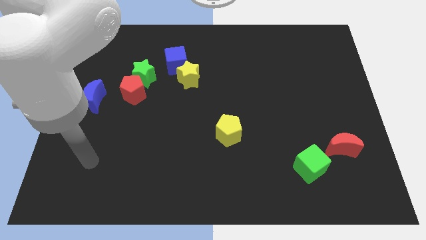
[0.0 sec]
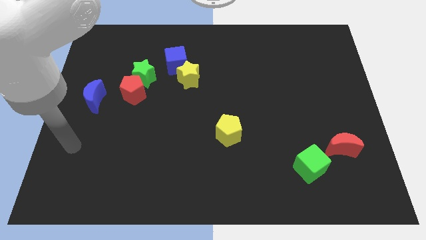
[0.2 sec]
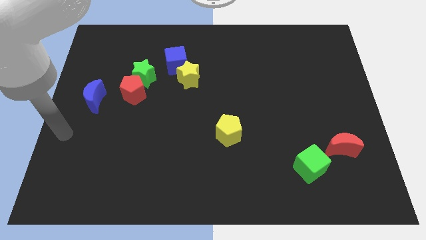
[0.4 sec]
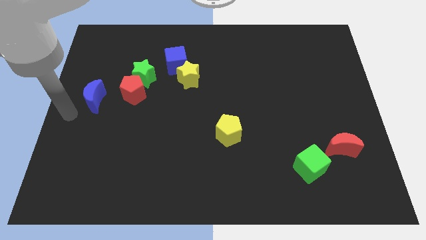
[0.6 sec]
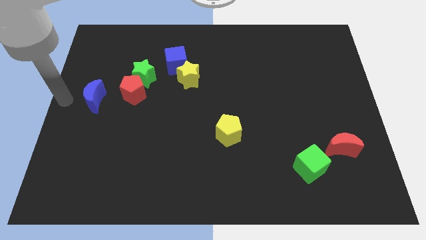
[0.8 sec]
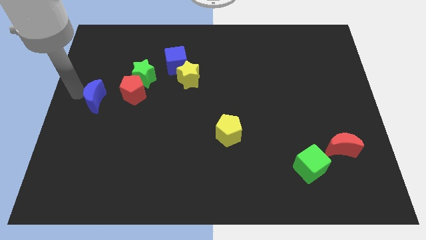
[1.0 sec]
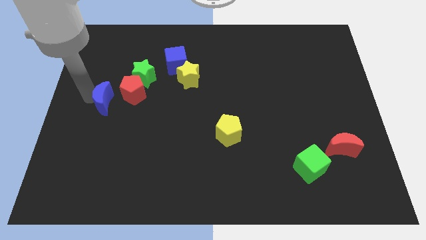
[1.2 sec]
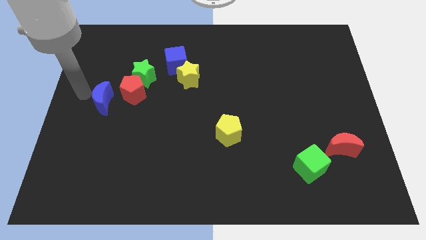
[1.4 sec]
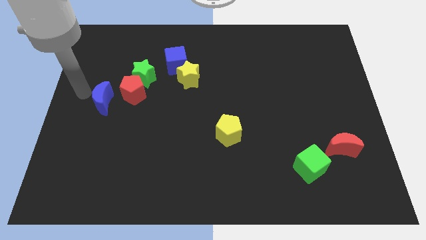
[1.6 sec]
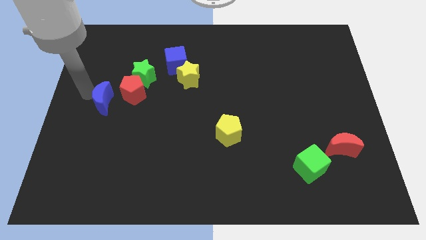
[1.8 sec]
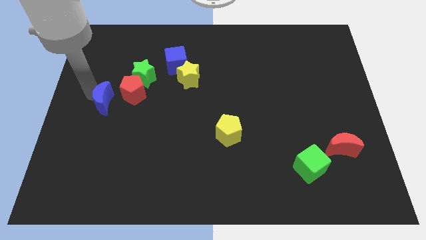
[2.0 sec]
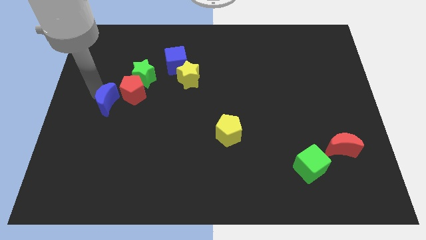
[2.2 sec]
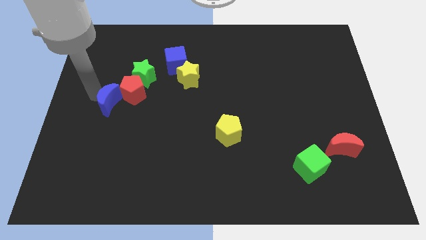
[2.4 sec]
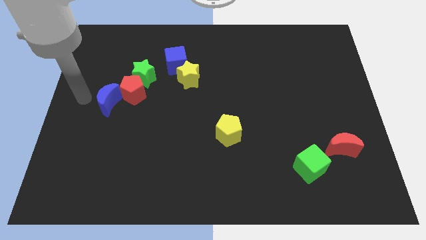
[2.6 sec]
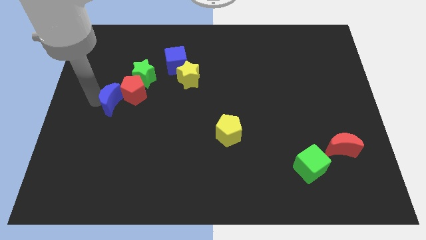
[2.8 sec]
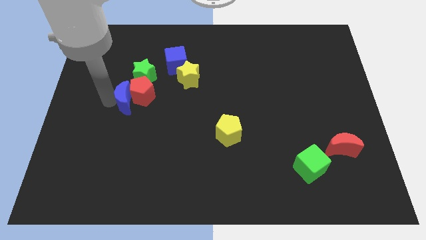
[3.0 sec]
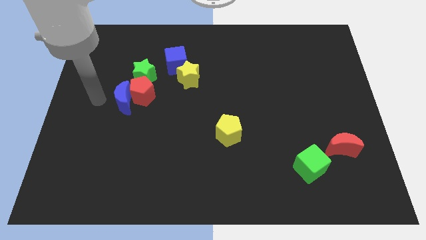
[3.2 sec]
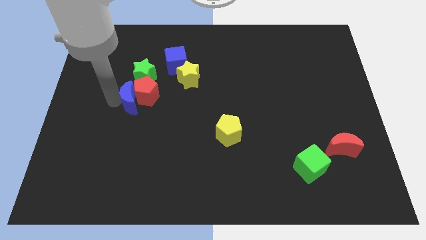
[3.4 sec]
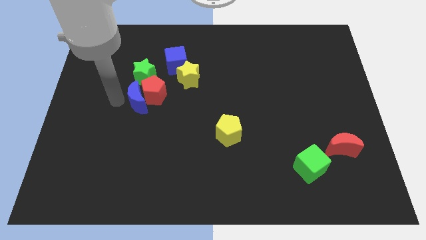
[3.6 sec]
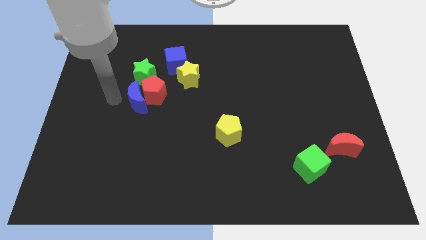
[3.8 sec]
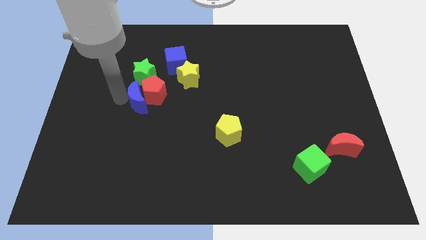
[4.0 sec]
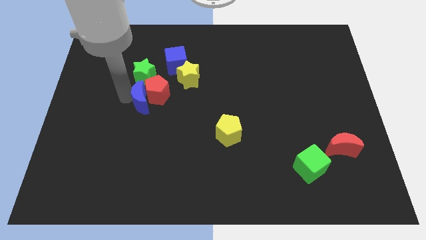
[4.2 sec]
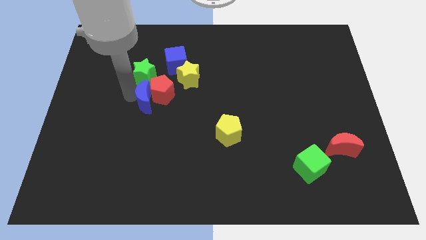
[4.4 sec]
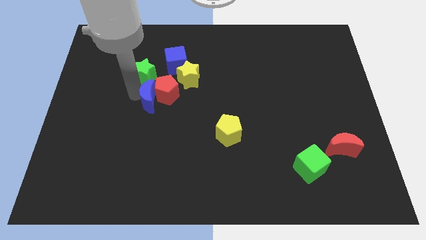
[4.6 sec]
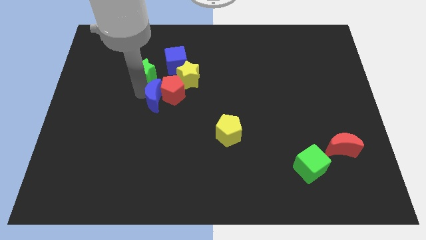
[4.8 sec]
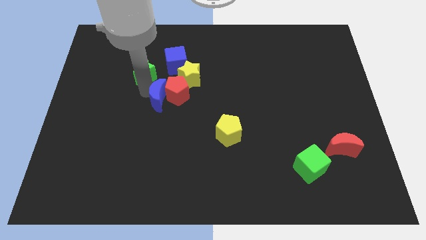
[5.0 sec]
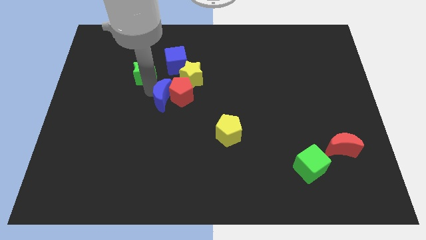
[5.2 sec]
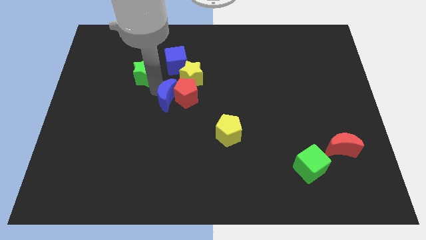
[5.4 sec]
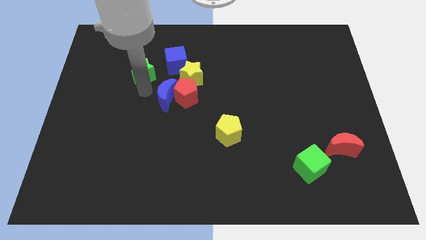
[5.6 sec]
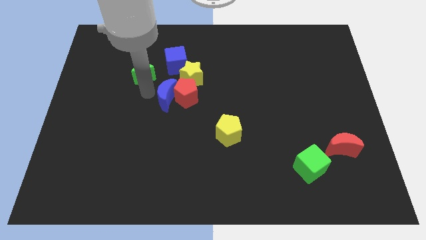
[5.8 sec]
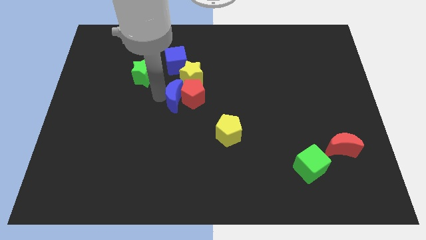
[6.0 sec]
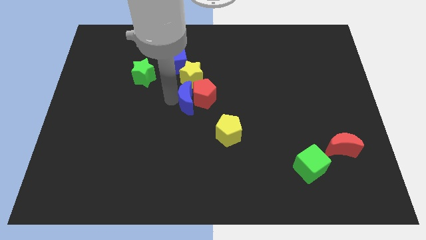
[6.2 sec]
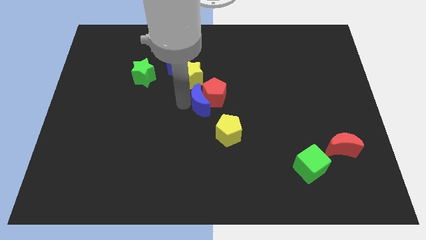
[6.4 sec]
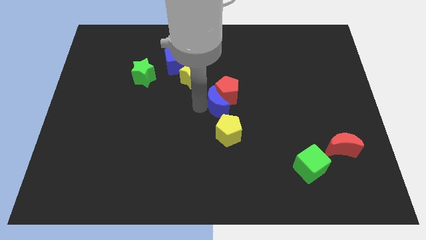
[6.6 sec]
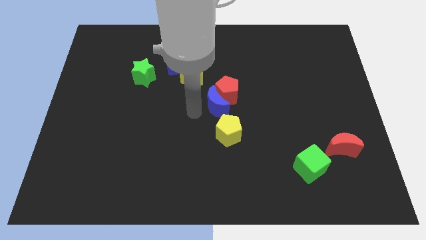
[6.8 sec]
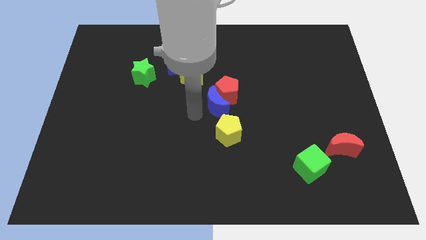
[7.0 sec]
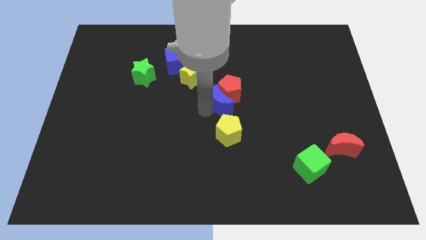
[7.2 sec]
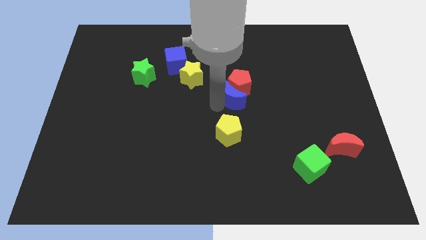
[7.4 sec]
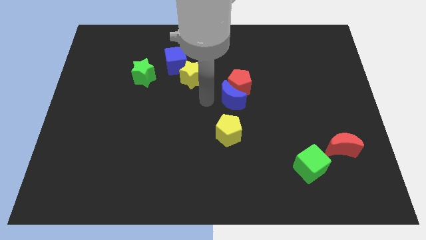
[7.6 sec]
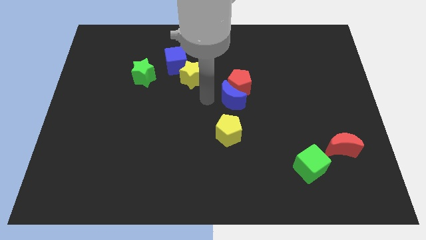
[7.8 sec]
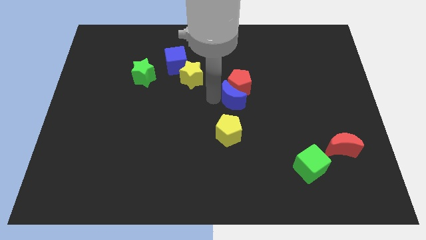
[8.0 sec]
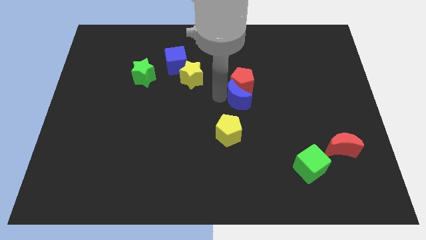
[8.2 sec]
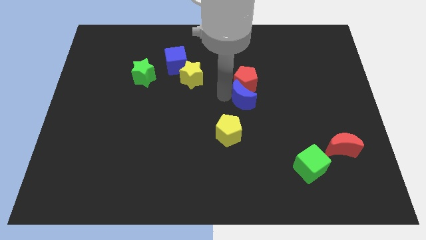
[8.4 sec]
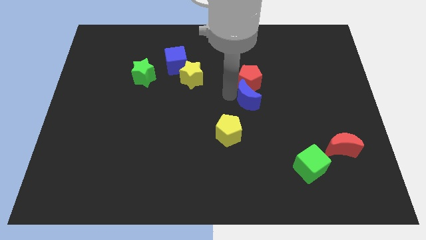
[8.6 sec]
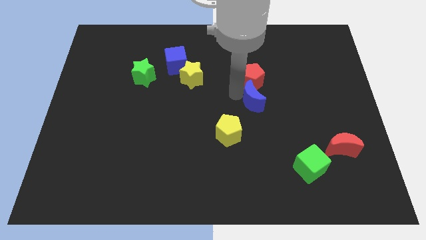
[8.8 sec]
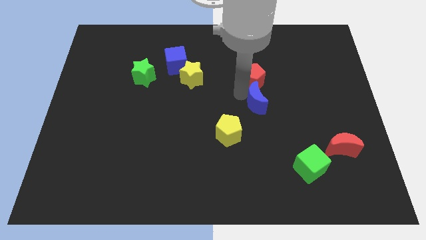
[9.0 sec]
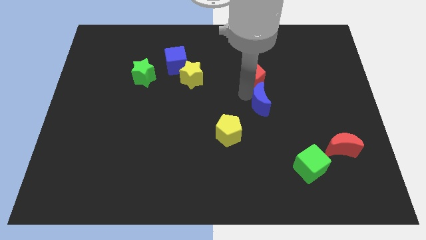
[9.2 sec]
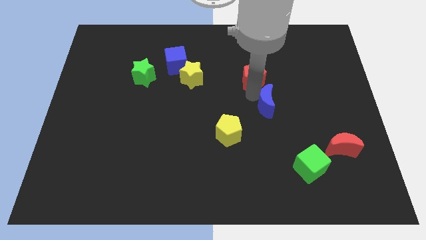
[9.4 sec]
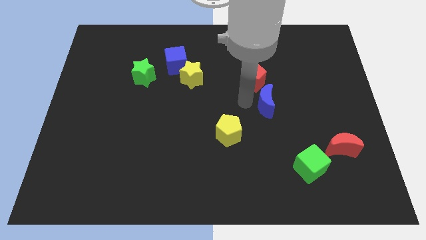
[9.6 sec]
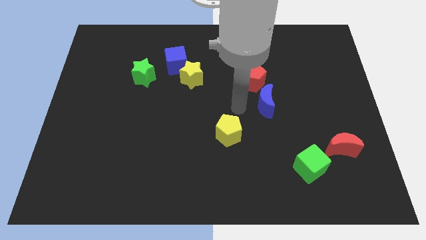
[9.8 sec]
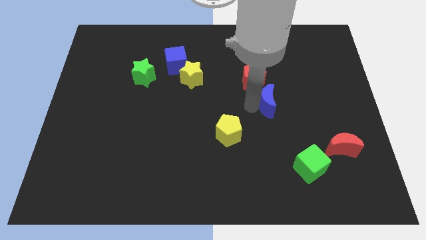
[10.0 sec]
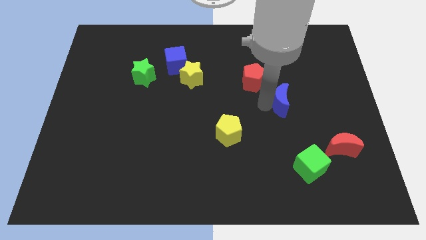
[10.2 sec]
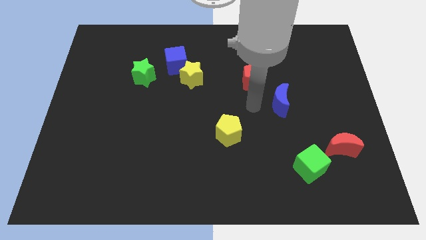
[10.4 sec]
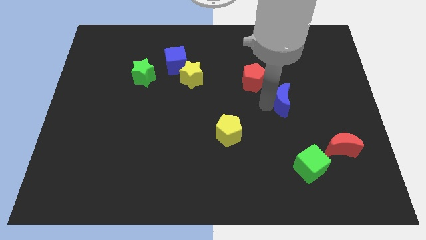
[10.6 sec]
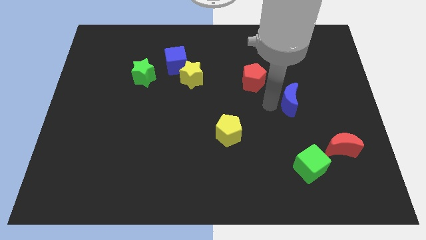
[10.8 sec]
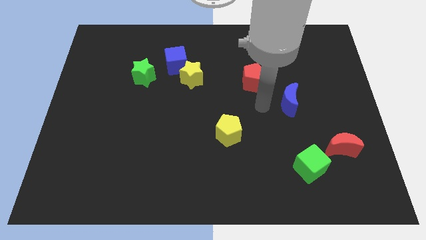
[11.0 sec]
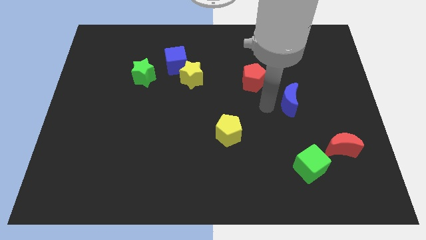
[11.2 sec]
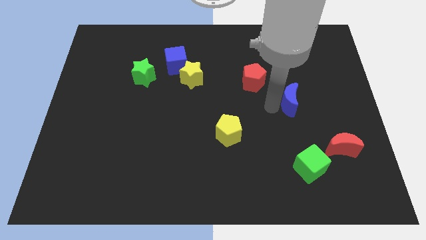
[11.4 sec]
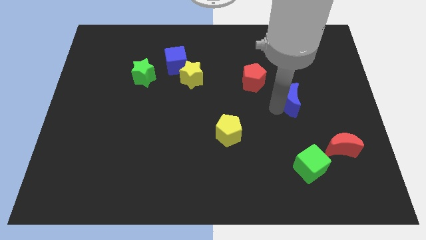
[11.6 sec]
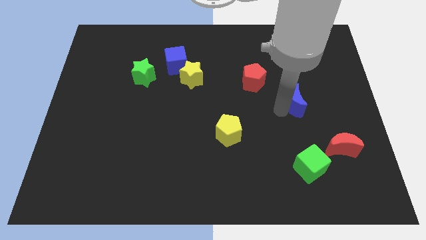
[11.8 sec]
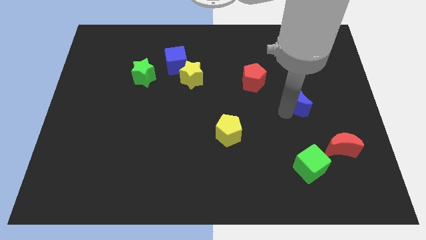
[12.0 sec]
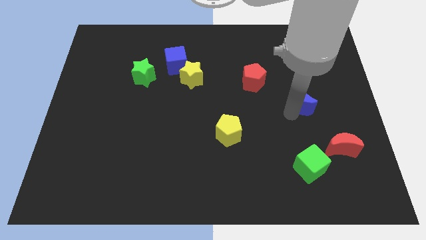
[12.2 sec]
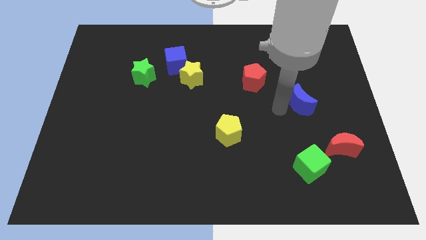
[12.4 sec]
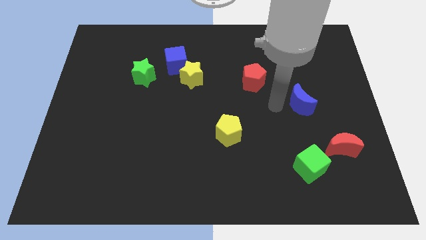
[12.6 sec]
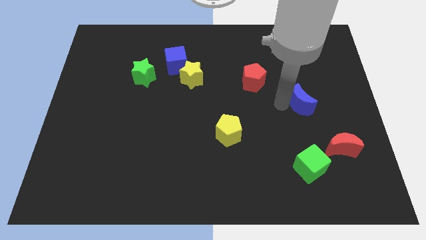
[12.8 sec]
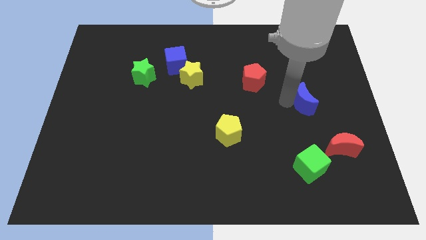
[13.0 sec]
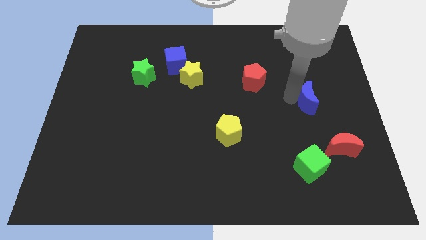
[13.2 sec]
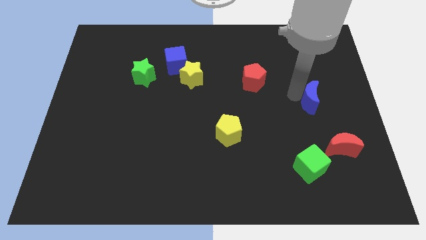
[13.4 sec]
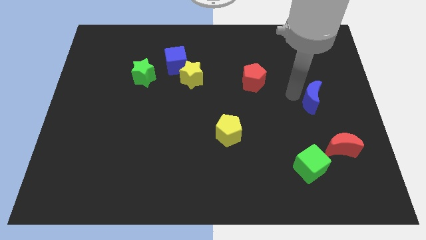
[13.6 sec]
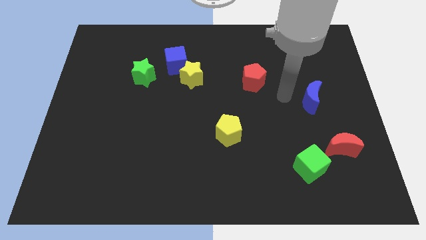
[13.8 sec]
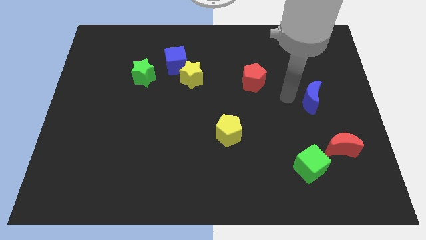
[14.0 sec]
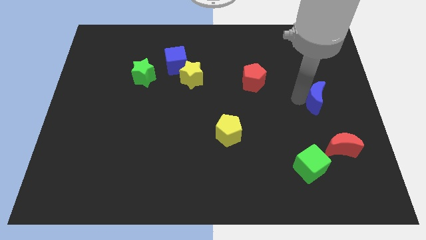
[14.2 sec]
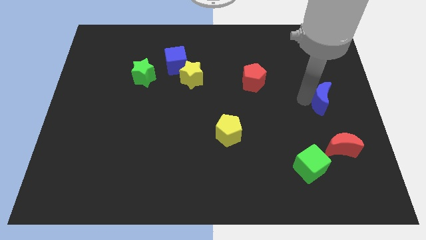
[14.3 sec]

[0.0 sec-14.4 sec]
move the blue moon to the center right
